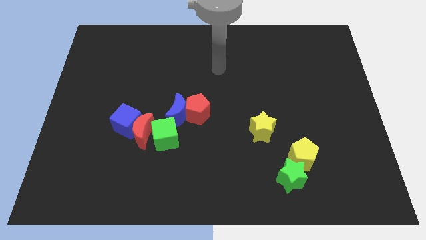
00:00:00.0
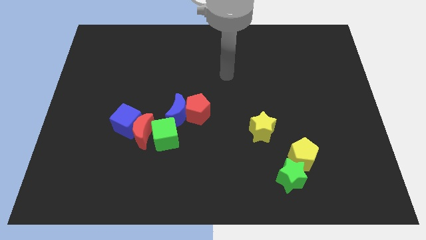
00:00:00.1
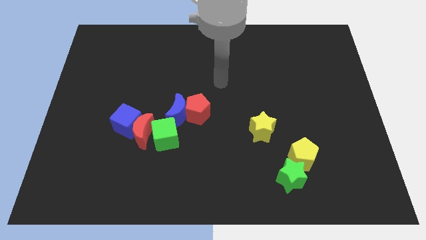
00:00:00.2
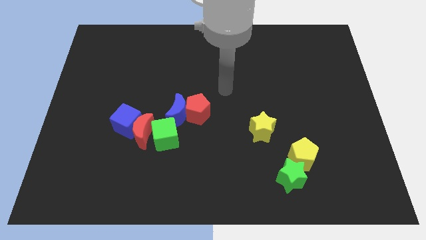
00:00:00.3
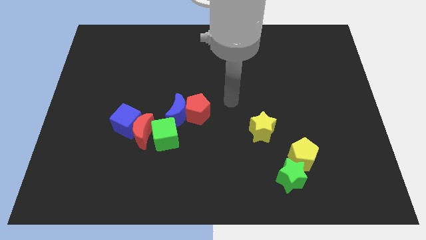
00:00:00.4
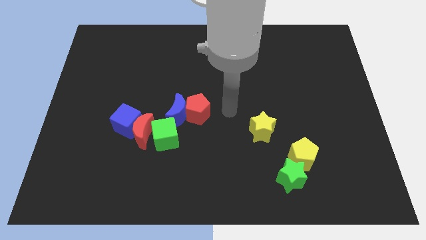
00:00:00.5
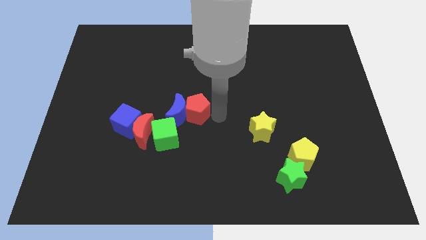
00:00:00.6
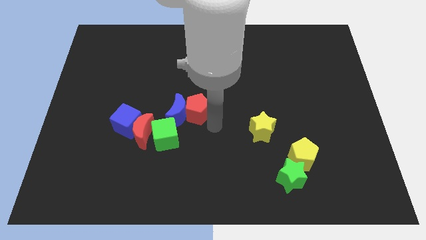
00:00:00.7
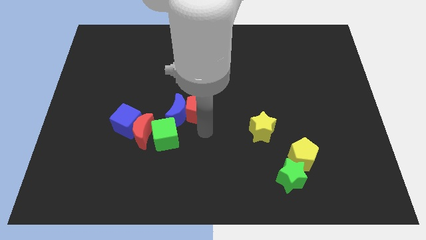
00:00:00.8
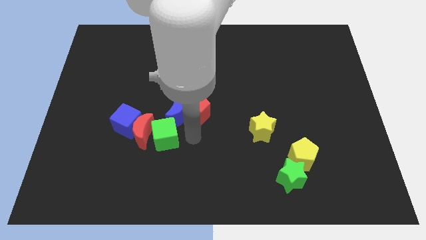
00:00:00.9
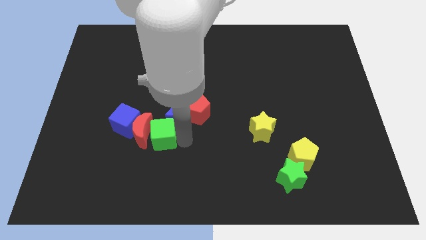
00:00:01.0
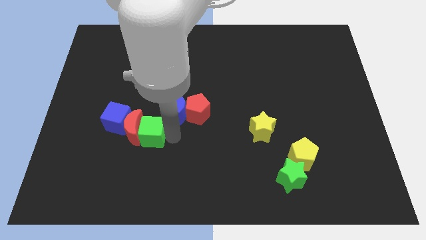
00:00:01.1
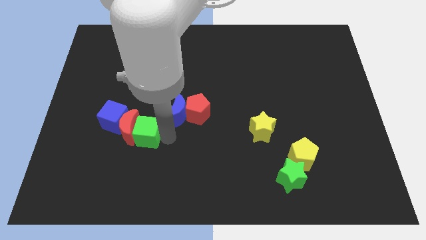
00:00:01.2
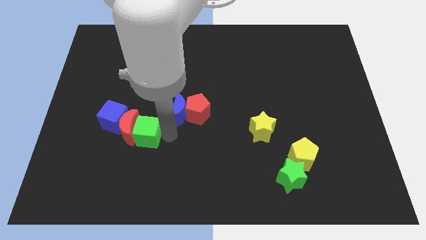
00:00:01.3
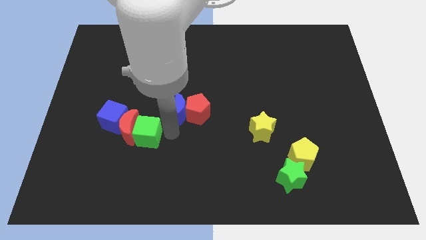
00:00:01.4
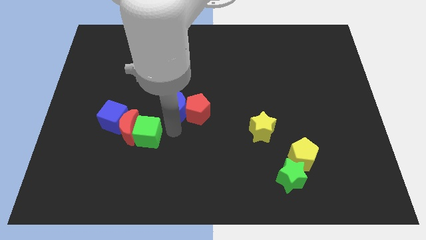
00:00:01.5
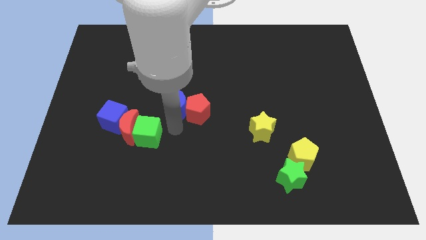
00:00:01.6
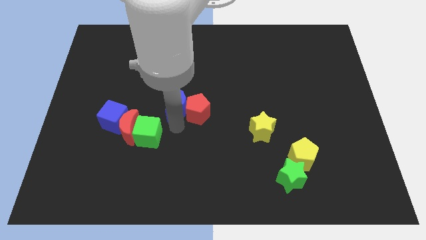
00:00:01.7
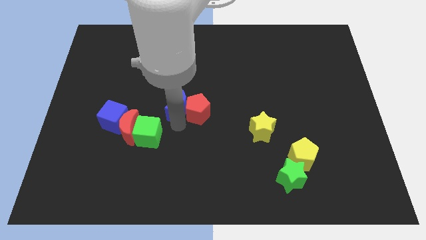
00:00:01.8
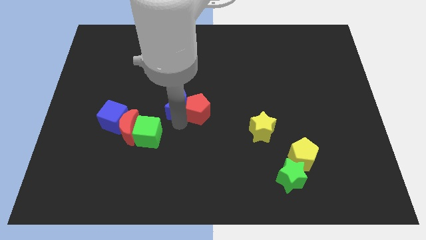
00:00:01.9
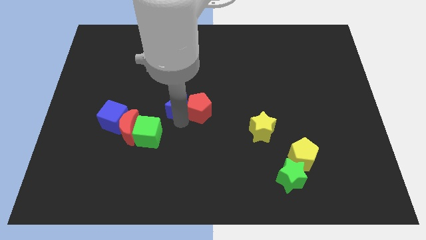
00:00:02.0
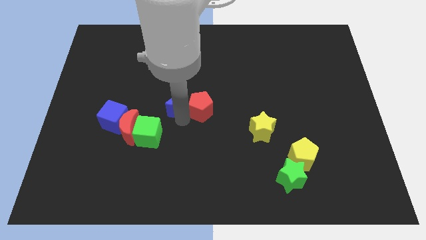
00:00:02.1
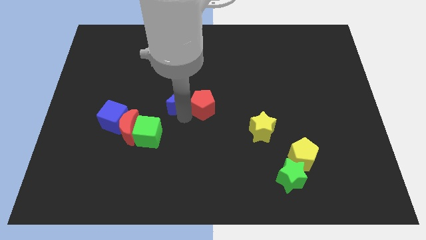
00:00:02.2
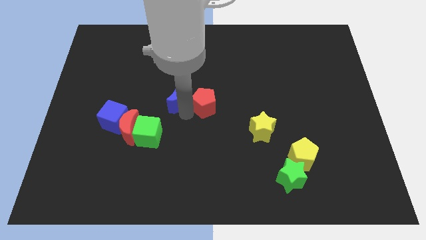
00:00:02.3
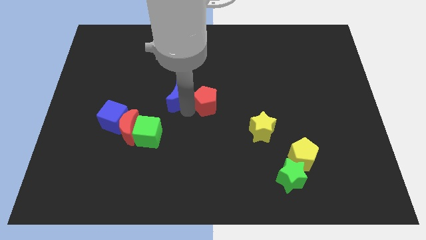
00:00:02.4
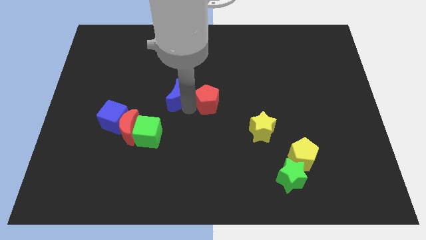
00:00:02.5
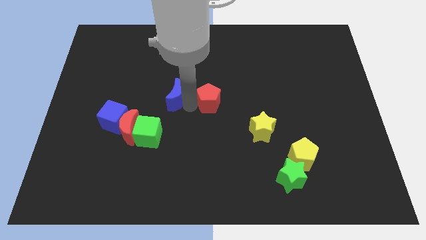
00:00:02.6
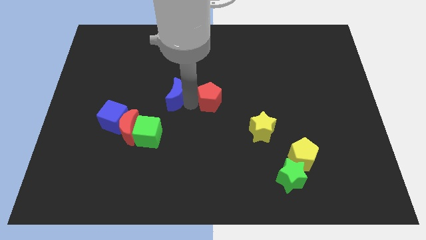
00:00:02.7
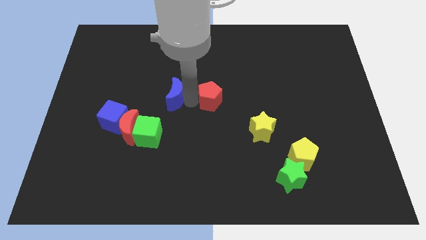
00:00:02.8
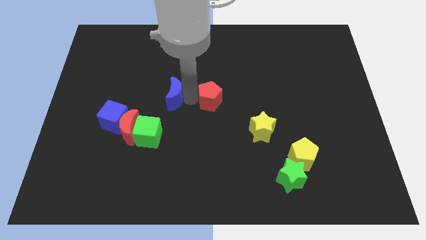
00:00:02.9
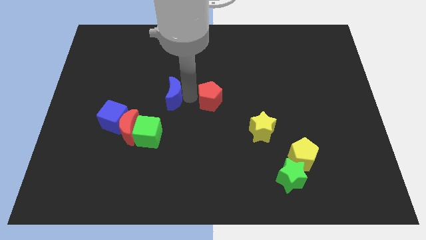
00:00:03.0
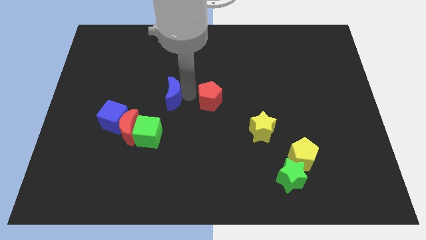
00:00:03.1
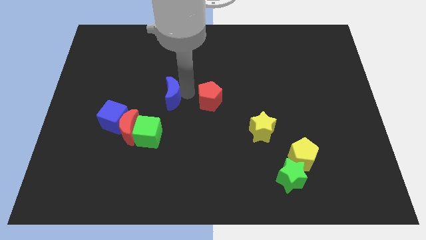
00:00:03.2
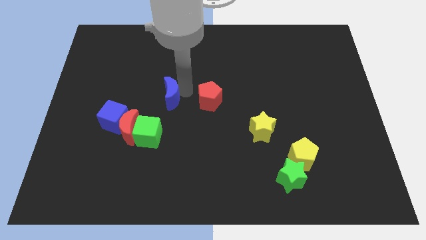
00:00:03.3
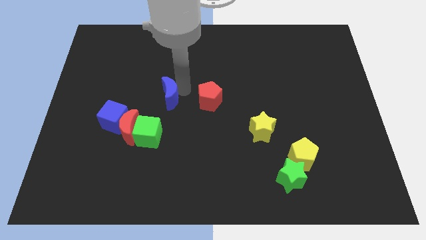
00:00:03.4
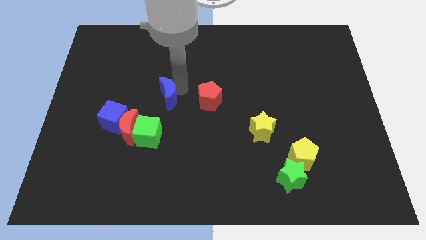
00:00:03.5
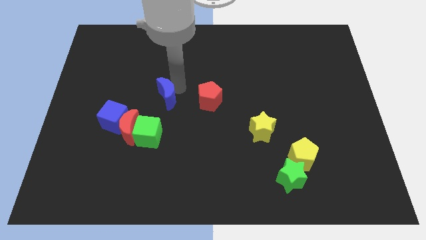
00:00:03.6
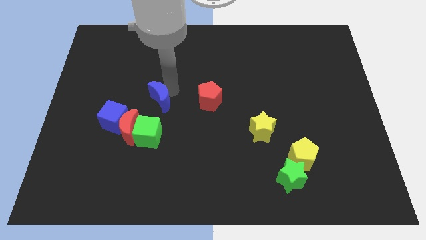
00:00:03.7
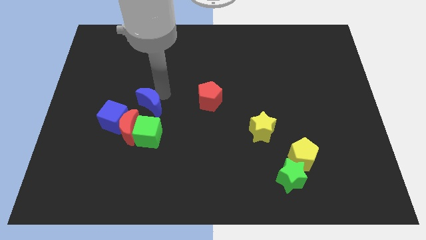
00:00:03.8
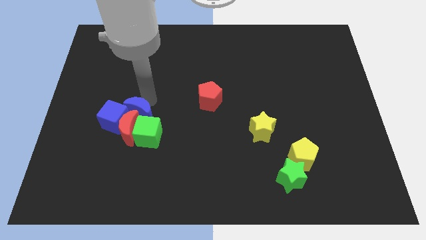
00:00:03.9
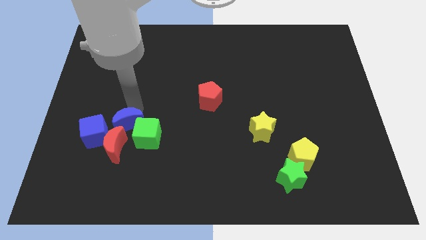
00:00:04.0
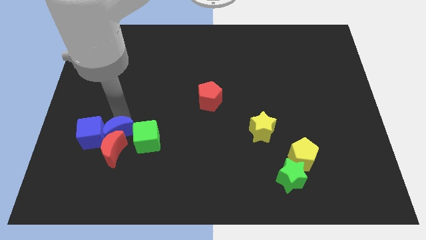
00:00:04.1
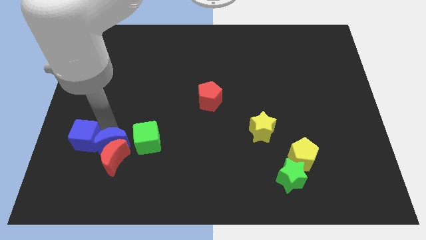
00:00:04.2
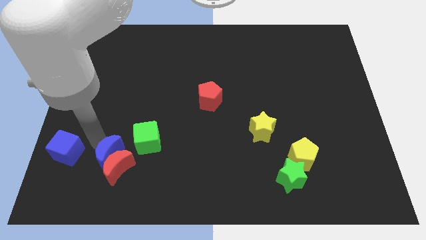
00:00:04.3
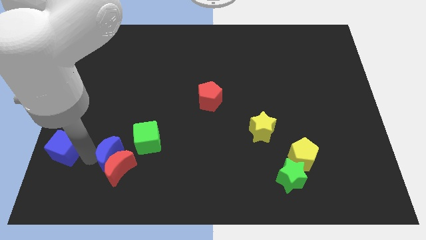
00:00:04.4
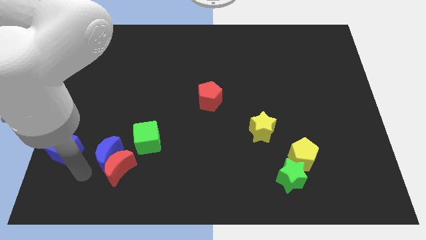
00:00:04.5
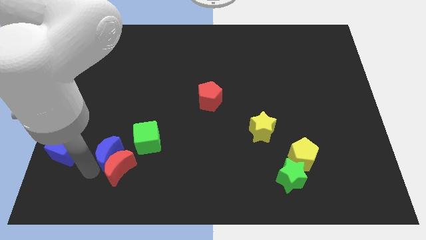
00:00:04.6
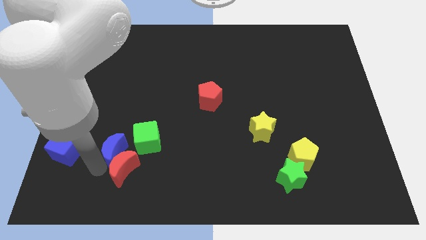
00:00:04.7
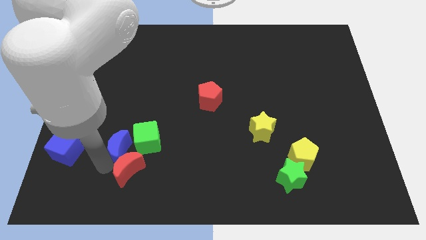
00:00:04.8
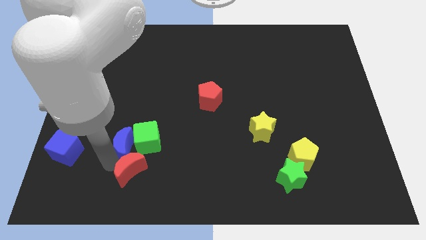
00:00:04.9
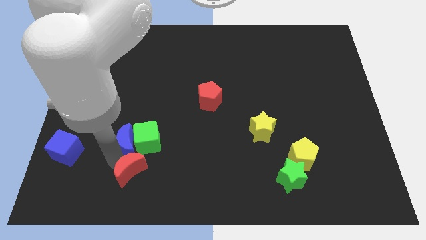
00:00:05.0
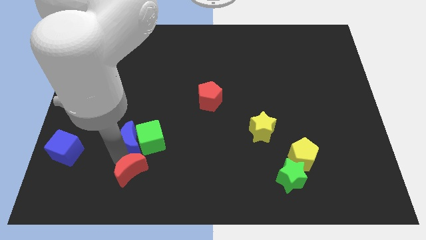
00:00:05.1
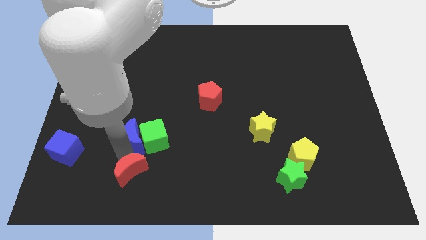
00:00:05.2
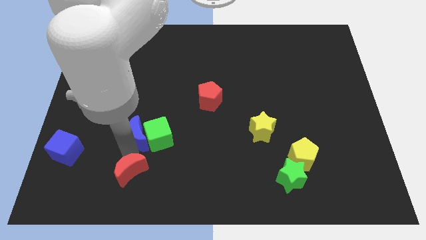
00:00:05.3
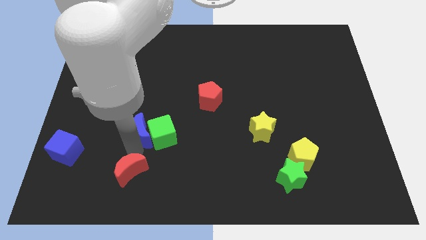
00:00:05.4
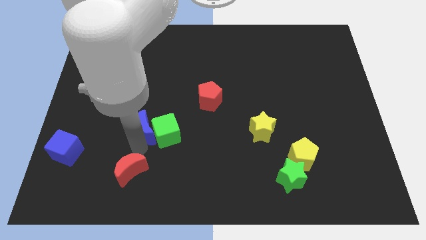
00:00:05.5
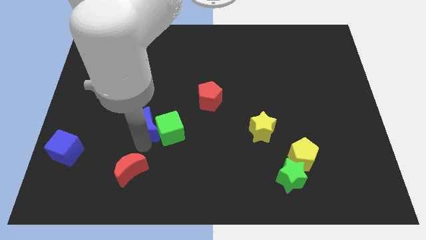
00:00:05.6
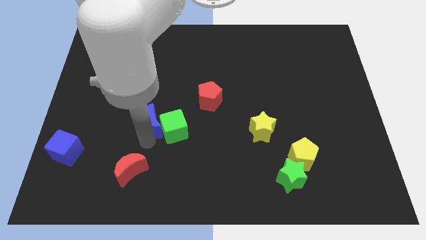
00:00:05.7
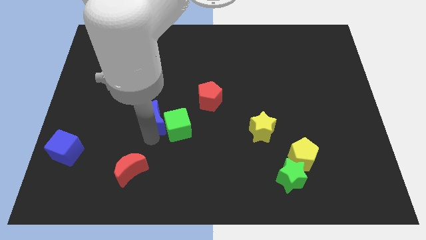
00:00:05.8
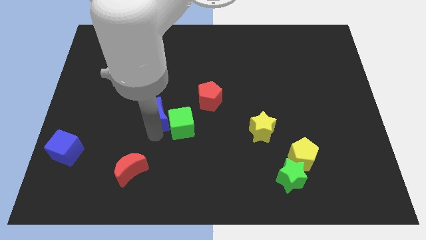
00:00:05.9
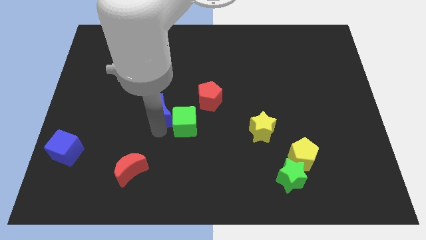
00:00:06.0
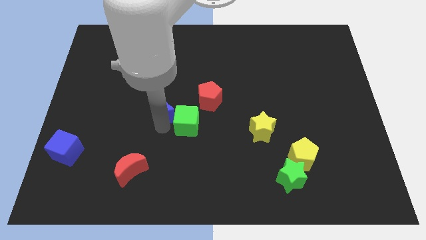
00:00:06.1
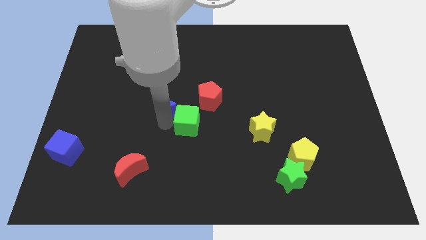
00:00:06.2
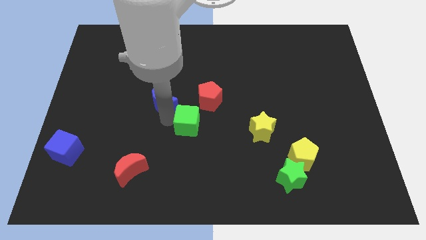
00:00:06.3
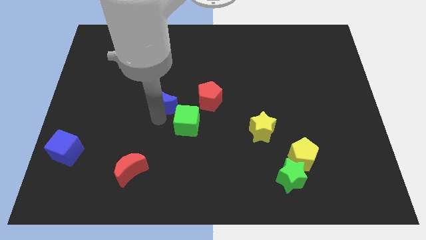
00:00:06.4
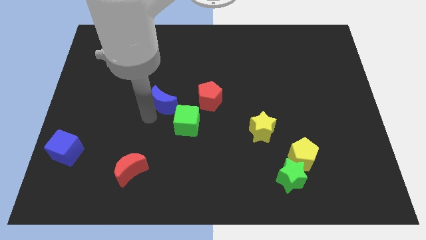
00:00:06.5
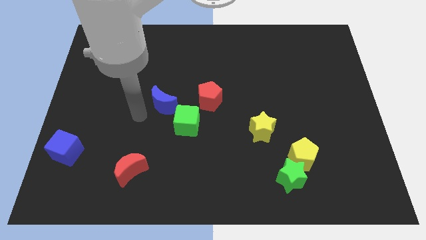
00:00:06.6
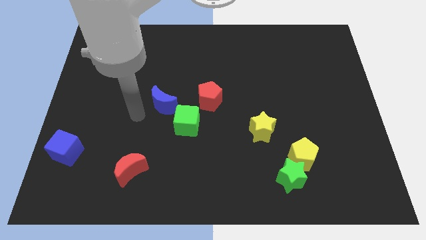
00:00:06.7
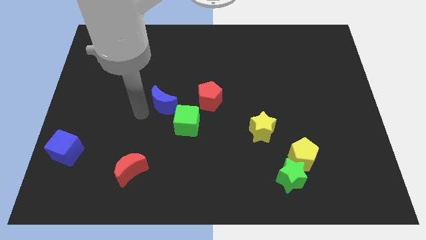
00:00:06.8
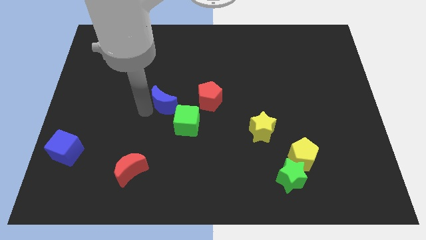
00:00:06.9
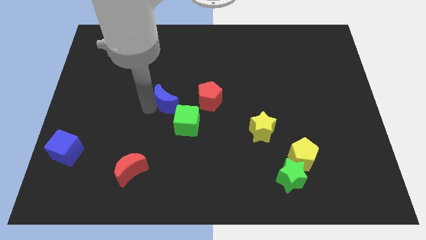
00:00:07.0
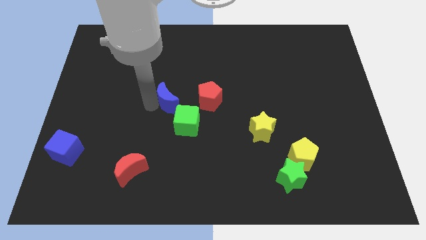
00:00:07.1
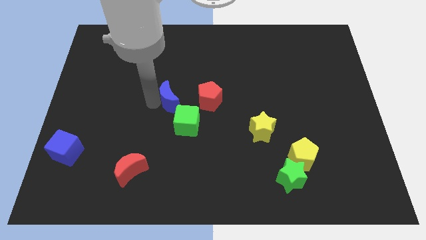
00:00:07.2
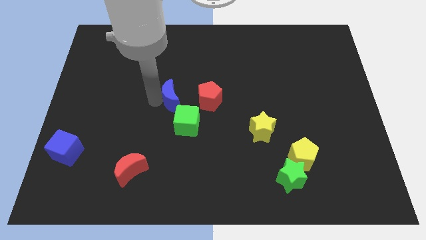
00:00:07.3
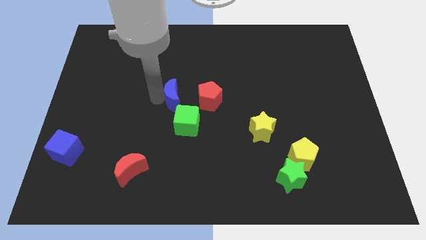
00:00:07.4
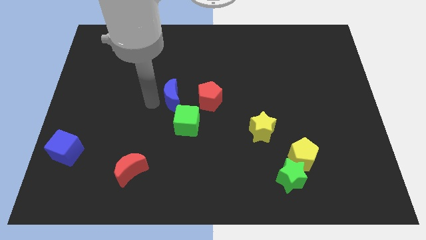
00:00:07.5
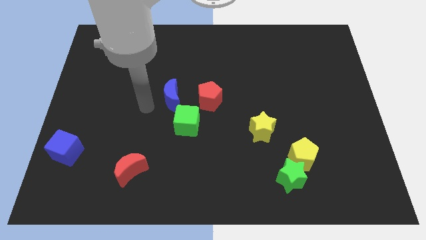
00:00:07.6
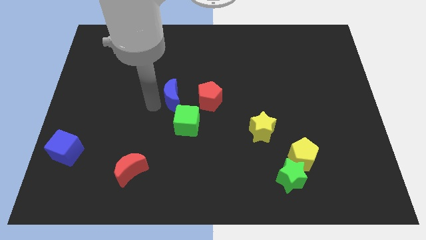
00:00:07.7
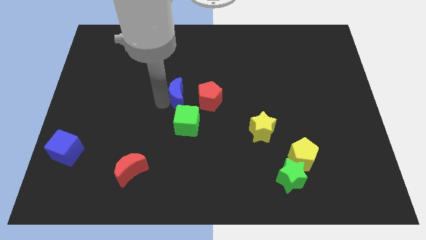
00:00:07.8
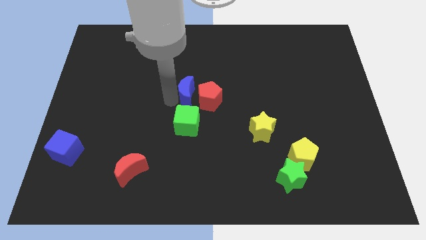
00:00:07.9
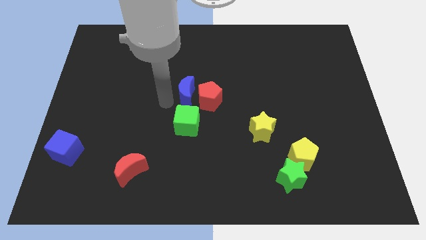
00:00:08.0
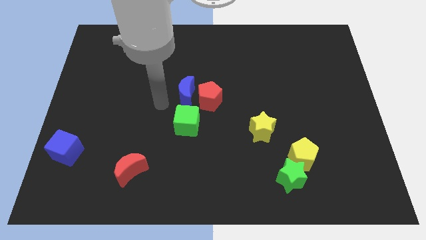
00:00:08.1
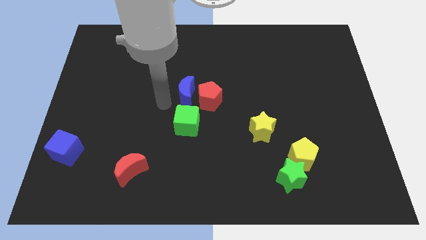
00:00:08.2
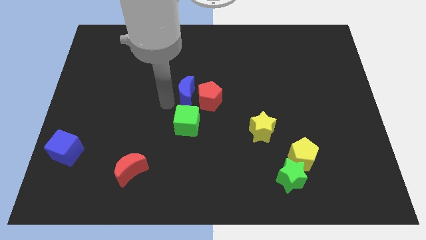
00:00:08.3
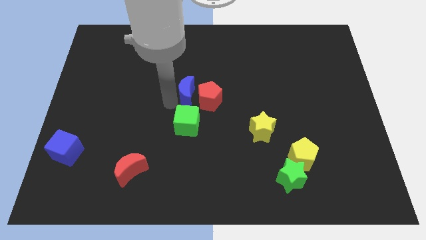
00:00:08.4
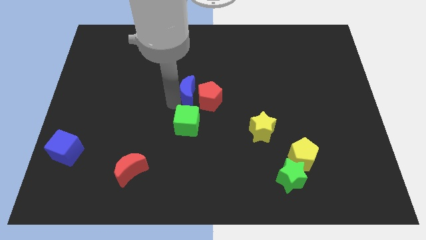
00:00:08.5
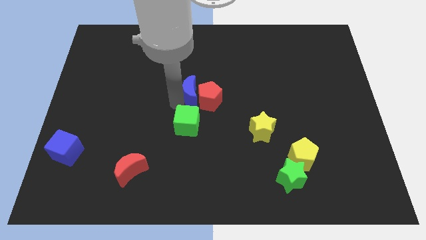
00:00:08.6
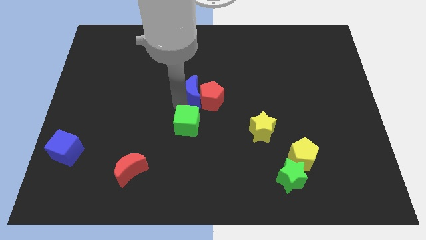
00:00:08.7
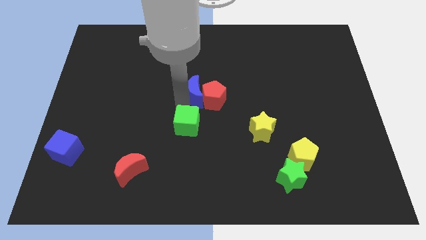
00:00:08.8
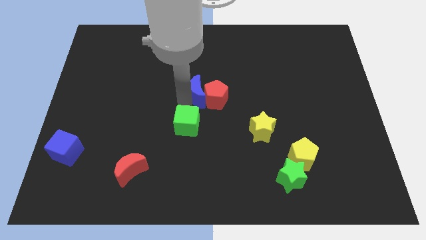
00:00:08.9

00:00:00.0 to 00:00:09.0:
slightly move the blue moon diagonally upwards and right
